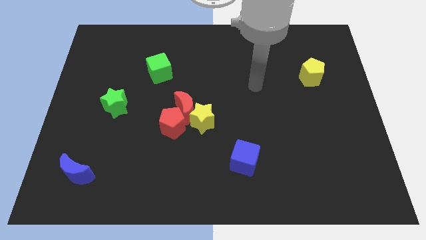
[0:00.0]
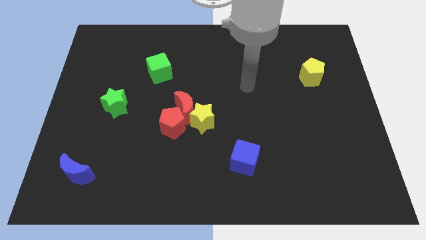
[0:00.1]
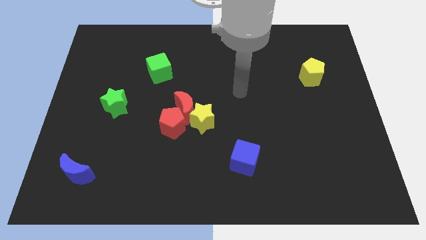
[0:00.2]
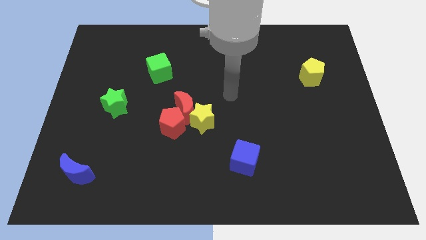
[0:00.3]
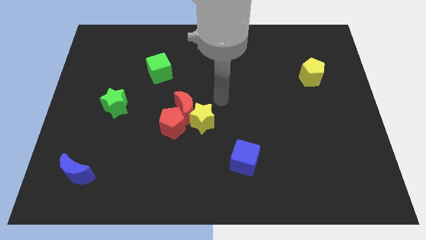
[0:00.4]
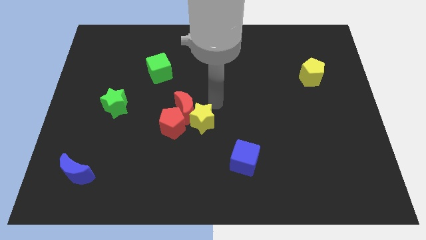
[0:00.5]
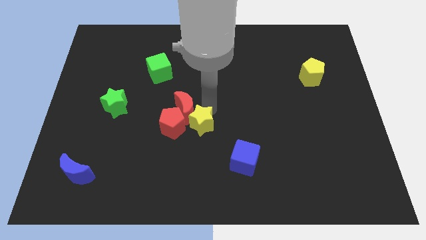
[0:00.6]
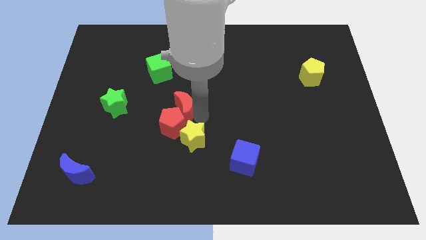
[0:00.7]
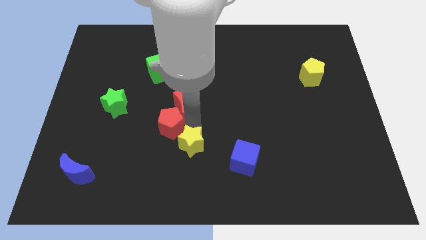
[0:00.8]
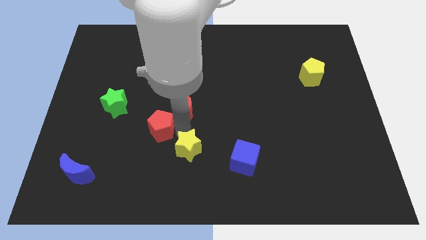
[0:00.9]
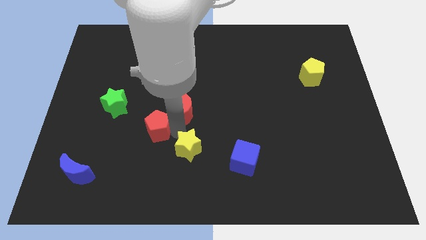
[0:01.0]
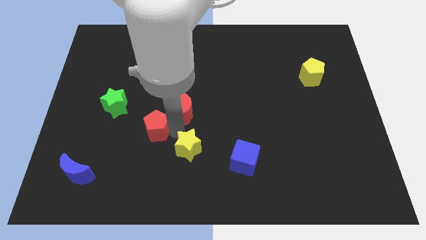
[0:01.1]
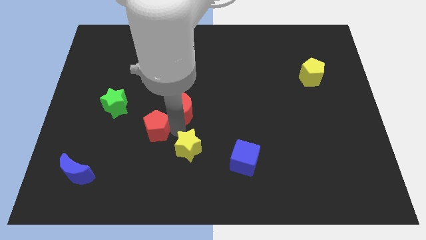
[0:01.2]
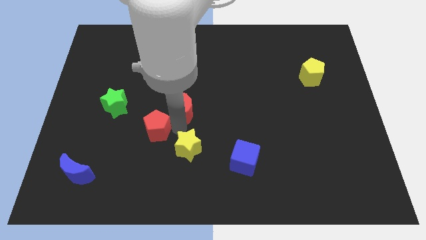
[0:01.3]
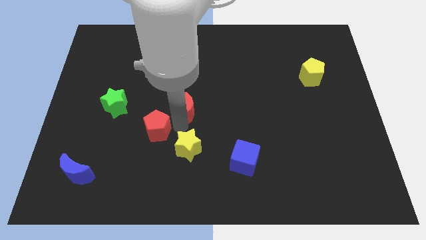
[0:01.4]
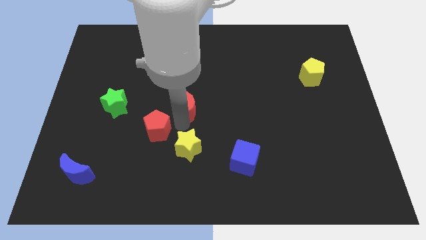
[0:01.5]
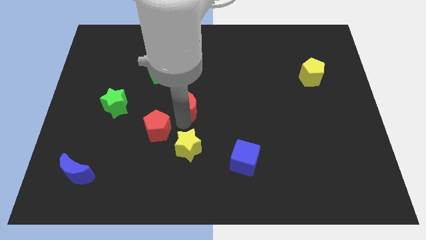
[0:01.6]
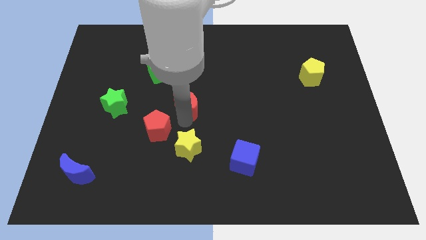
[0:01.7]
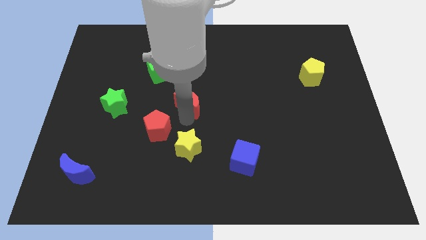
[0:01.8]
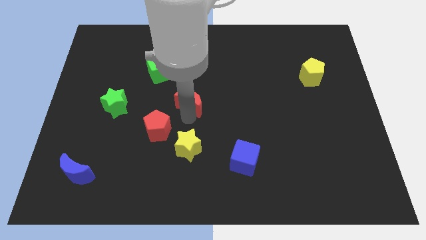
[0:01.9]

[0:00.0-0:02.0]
move the red moon away from the yellow star and red pentagon

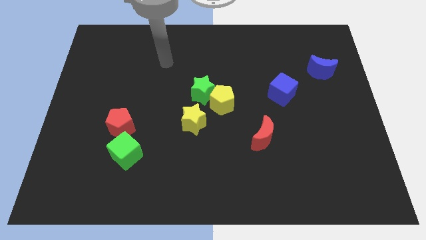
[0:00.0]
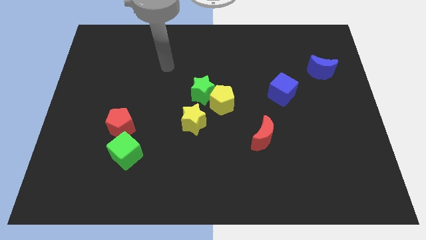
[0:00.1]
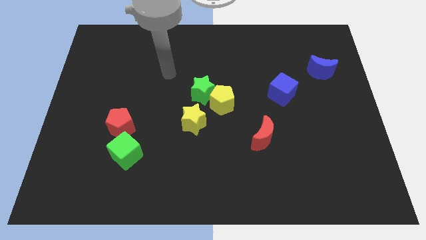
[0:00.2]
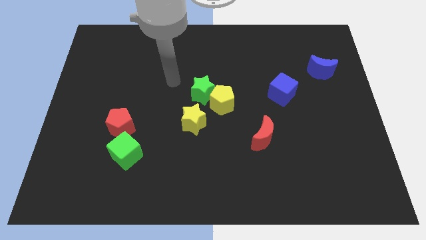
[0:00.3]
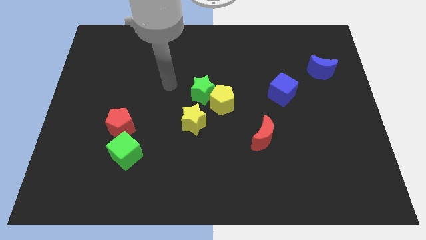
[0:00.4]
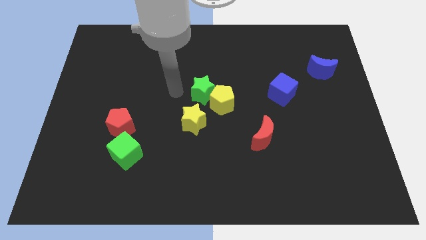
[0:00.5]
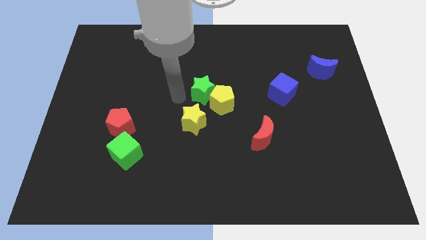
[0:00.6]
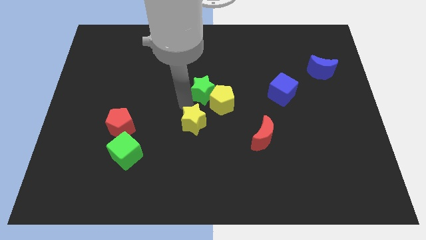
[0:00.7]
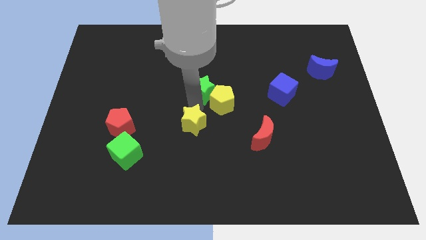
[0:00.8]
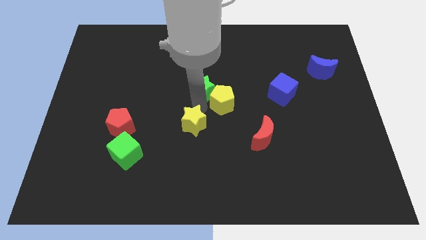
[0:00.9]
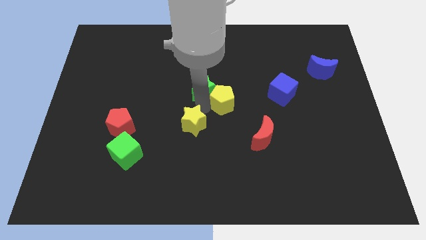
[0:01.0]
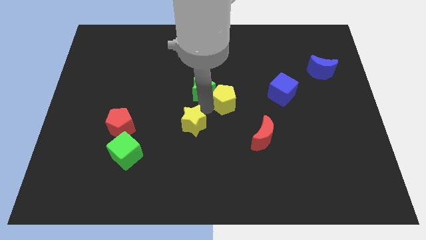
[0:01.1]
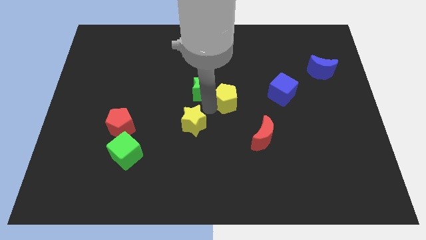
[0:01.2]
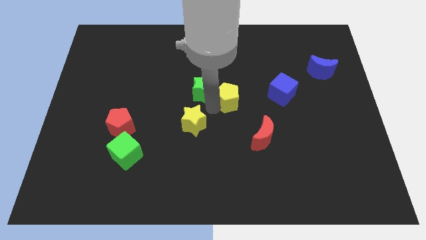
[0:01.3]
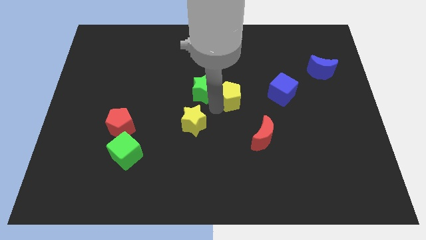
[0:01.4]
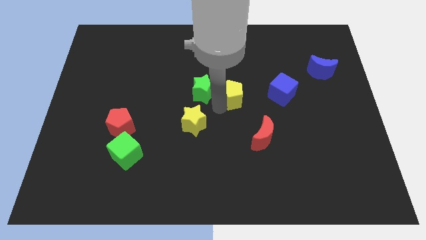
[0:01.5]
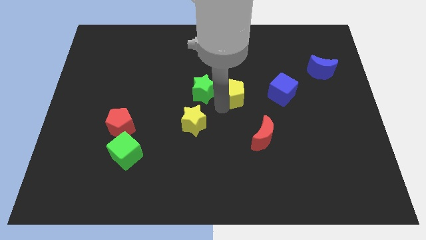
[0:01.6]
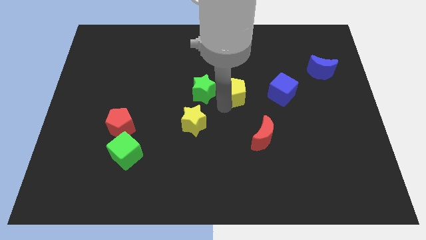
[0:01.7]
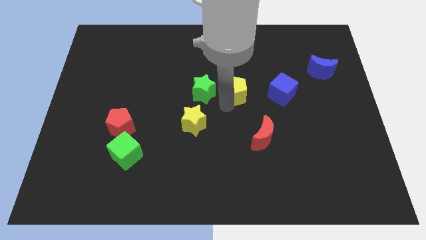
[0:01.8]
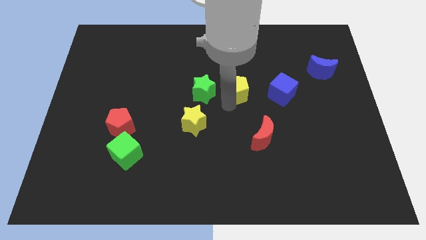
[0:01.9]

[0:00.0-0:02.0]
separate the yellow pentagon from the green star and yellow star

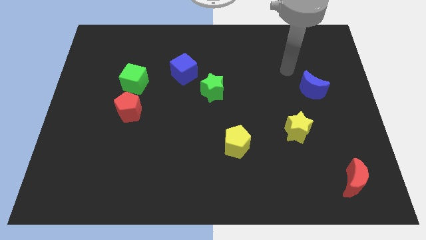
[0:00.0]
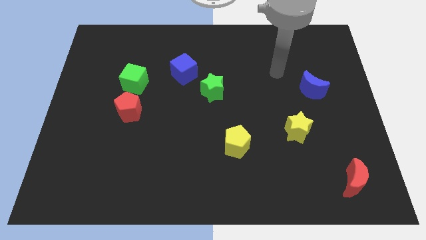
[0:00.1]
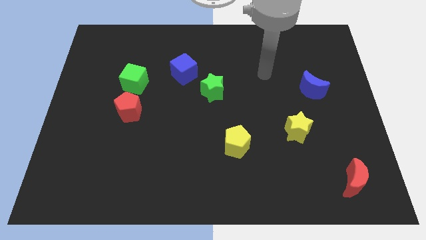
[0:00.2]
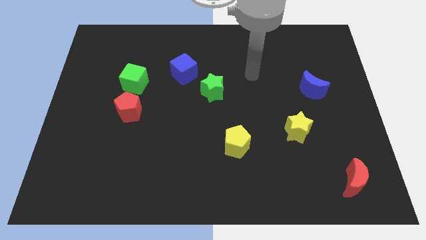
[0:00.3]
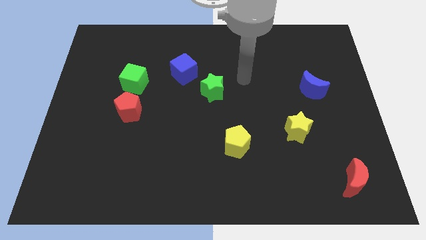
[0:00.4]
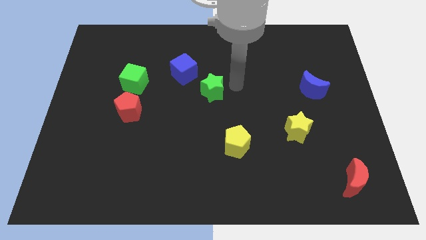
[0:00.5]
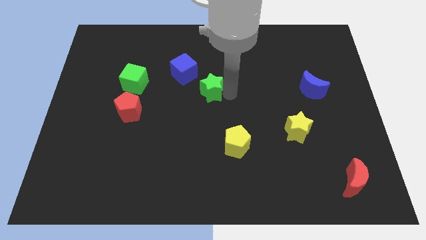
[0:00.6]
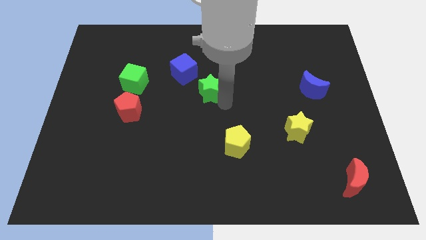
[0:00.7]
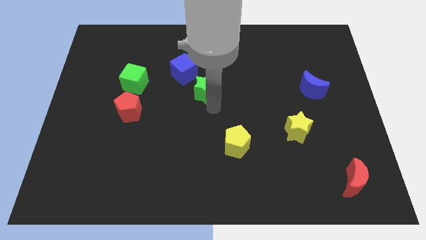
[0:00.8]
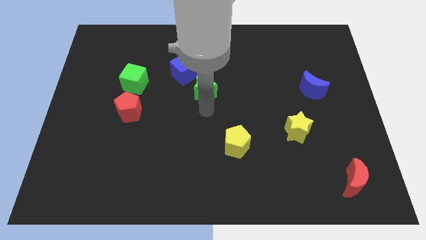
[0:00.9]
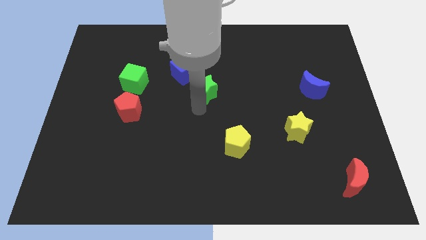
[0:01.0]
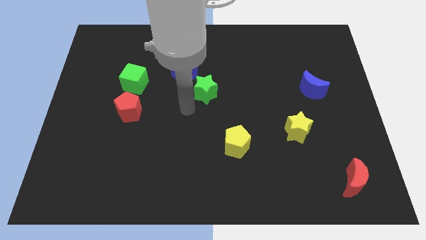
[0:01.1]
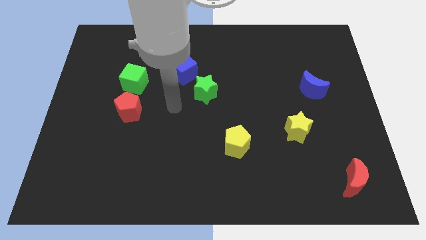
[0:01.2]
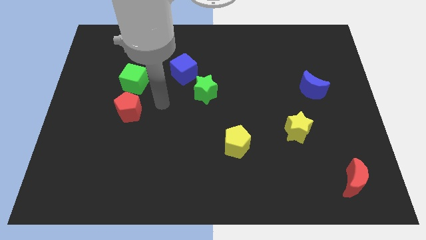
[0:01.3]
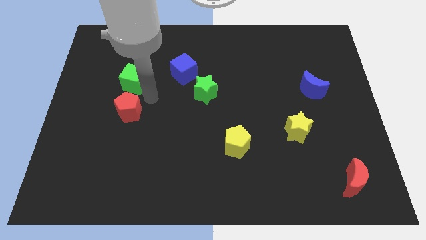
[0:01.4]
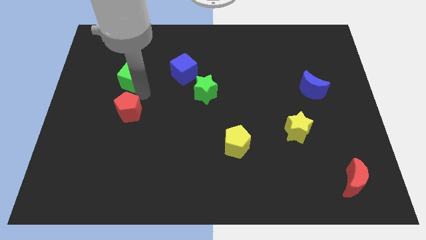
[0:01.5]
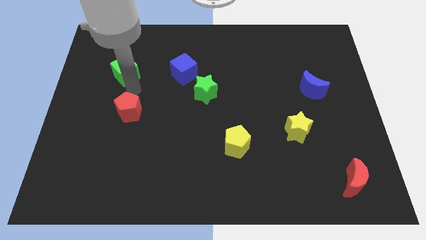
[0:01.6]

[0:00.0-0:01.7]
move the red pentagon away from the green cube

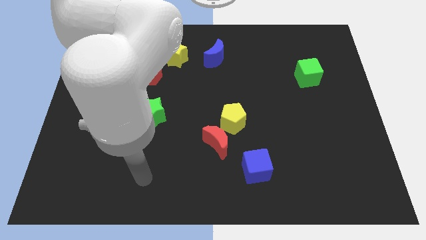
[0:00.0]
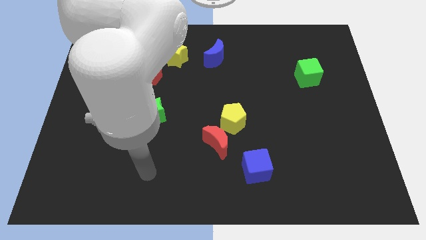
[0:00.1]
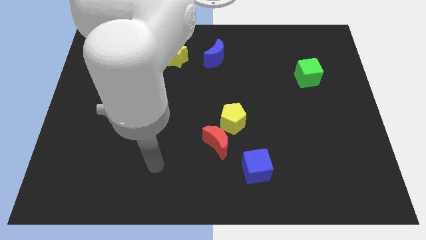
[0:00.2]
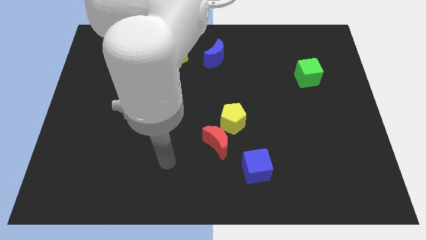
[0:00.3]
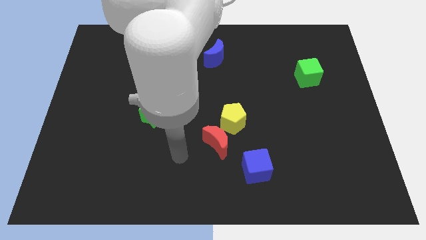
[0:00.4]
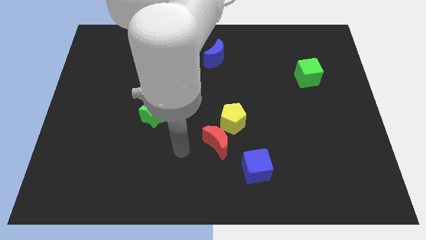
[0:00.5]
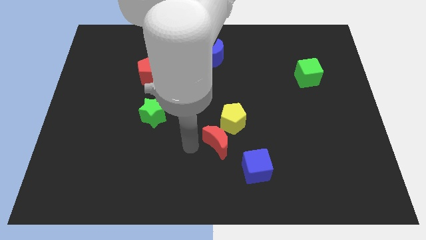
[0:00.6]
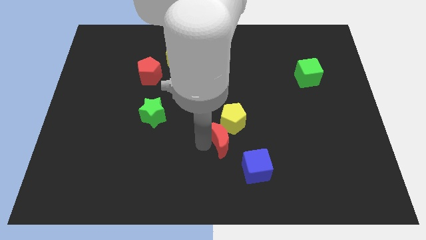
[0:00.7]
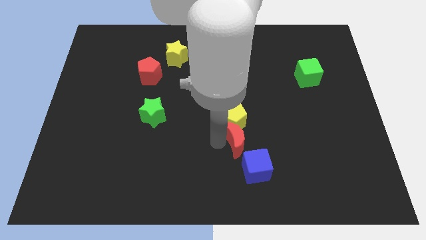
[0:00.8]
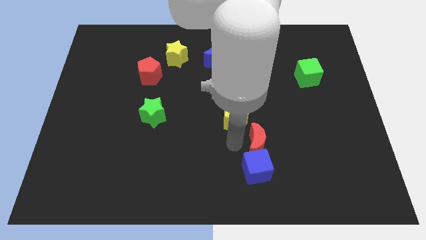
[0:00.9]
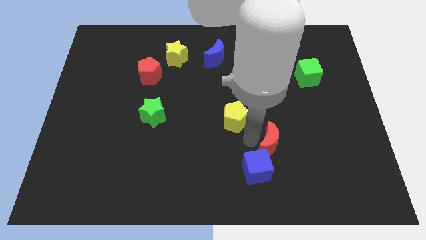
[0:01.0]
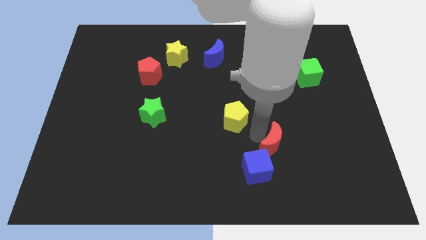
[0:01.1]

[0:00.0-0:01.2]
separate the yellow pentagon from the red moon

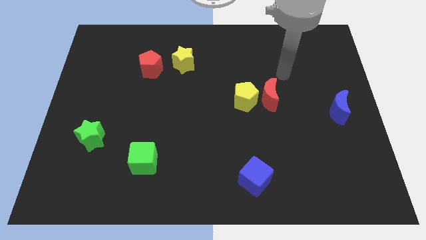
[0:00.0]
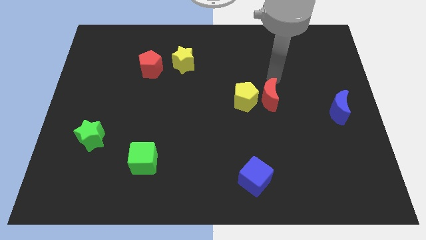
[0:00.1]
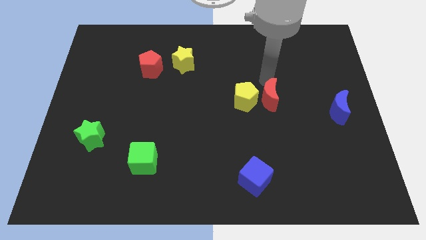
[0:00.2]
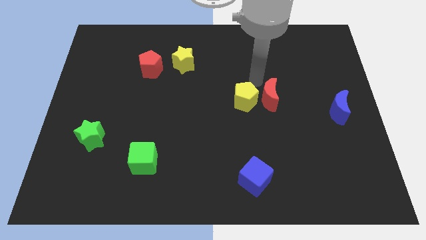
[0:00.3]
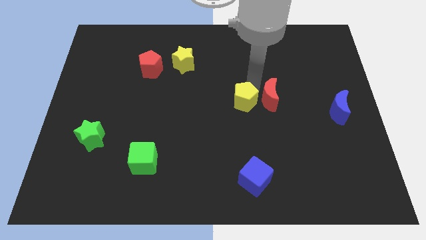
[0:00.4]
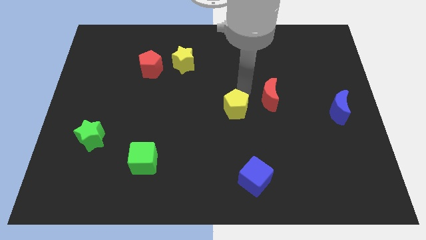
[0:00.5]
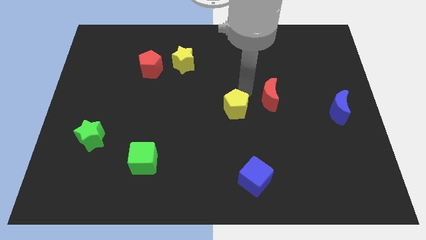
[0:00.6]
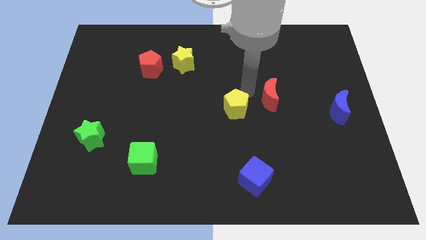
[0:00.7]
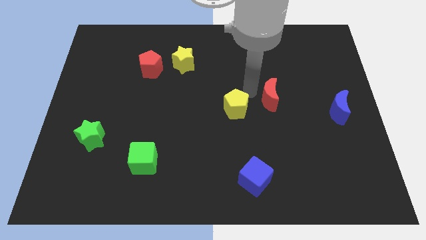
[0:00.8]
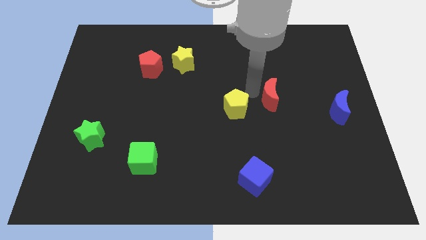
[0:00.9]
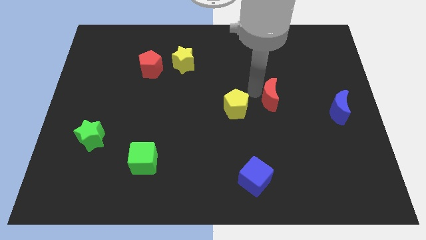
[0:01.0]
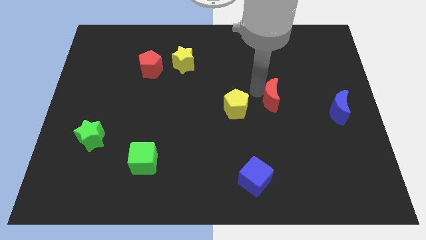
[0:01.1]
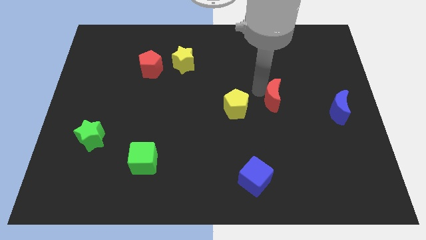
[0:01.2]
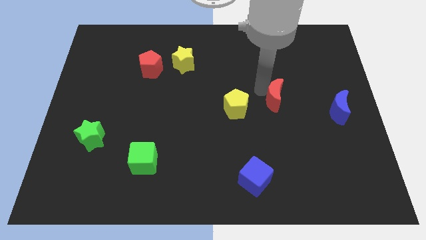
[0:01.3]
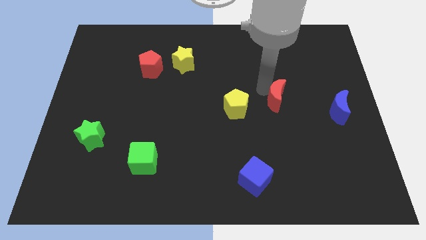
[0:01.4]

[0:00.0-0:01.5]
separate the red moon from the yellow pentagon

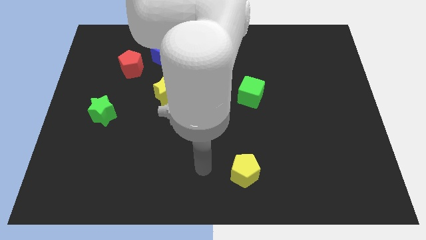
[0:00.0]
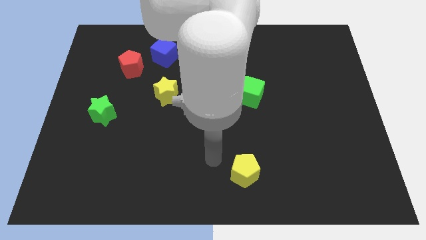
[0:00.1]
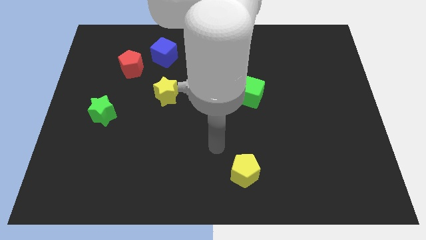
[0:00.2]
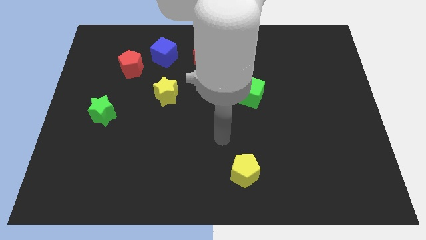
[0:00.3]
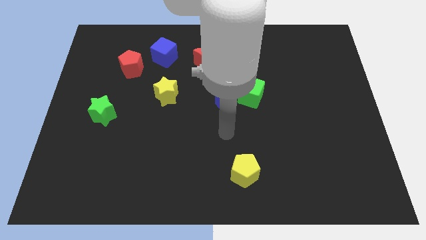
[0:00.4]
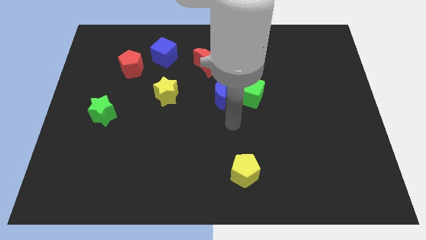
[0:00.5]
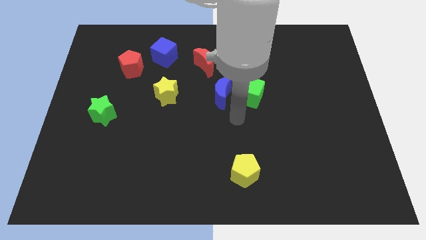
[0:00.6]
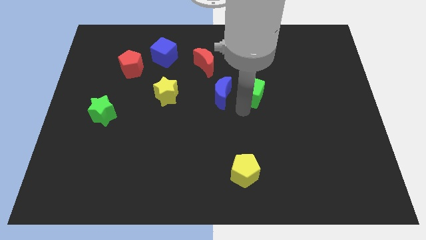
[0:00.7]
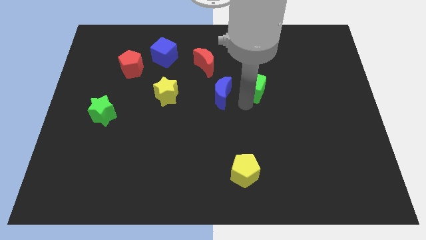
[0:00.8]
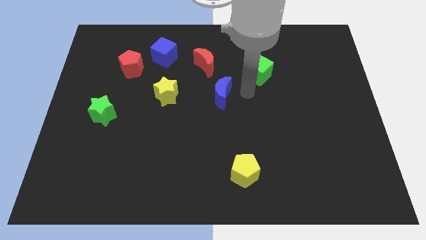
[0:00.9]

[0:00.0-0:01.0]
pull the blue moon apart from the green cube
